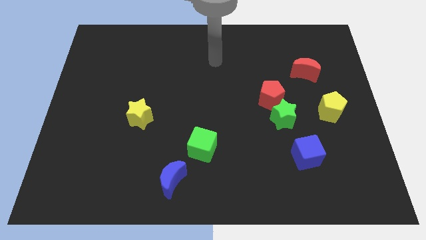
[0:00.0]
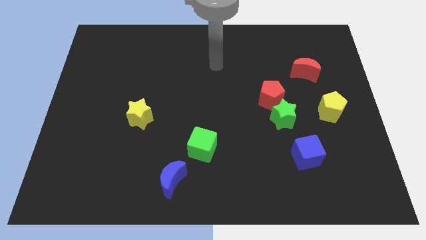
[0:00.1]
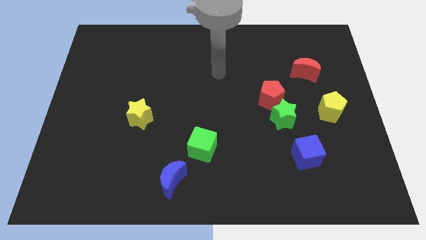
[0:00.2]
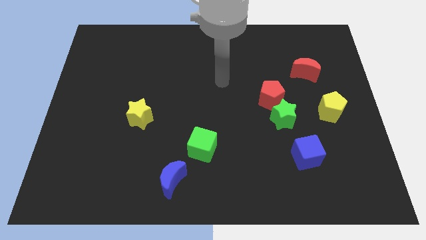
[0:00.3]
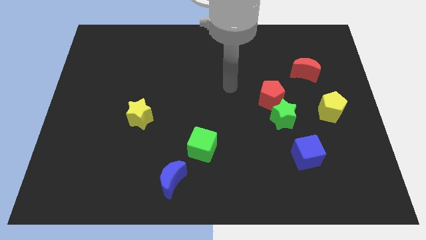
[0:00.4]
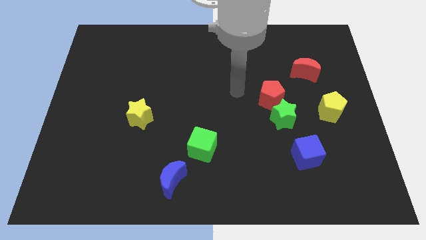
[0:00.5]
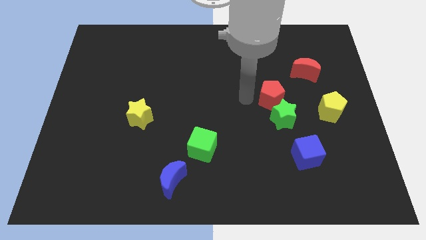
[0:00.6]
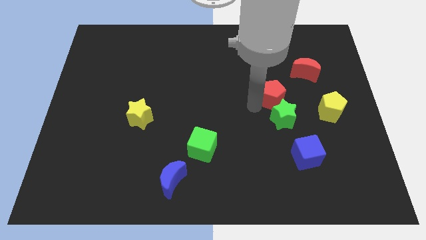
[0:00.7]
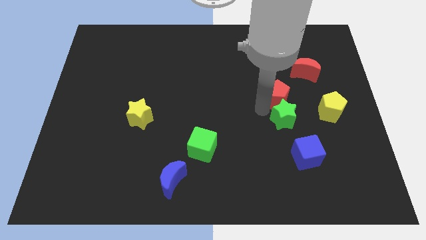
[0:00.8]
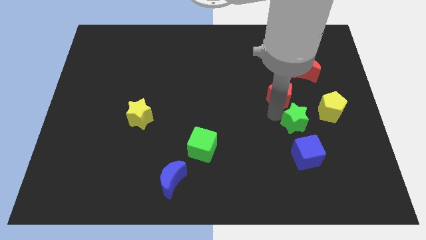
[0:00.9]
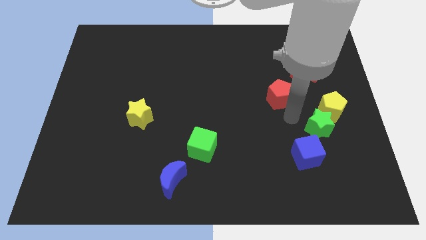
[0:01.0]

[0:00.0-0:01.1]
move the red pentagon away from the green star

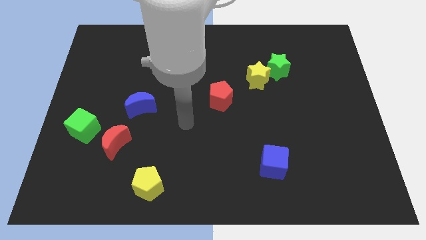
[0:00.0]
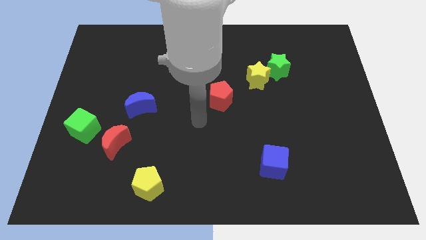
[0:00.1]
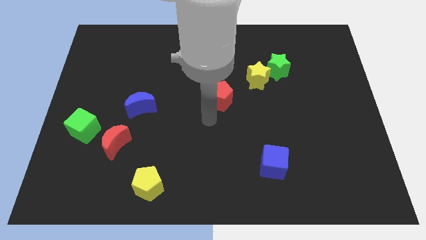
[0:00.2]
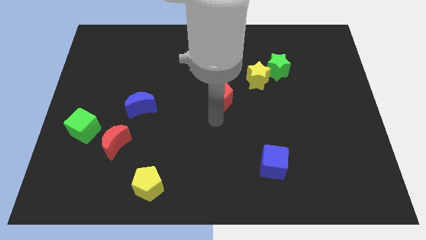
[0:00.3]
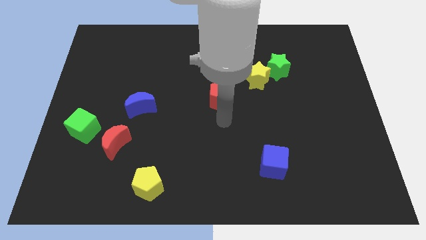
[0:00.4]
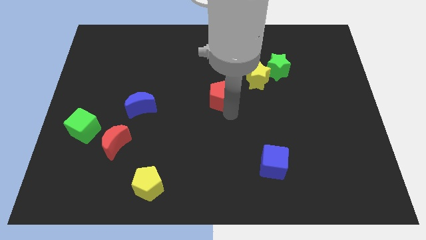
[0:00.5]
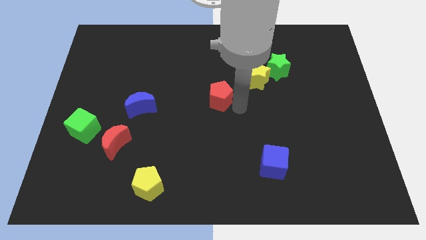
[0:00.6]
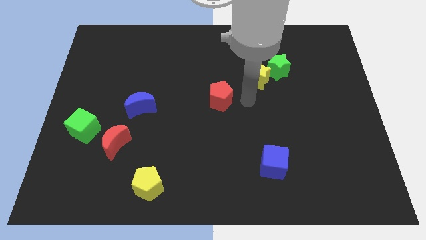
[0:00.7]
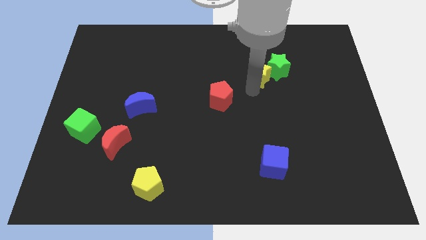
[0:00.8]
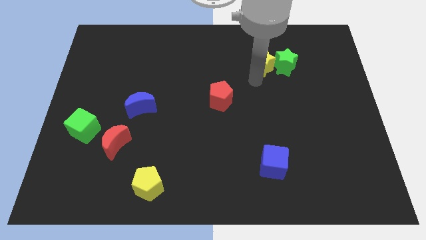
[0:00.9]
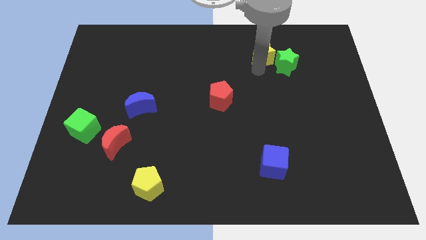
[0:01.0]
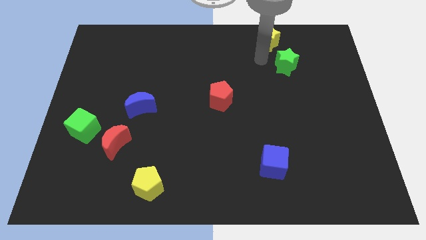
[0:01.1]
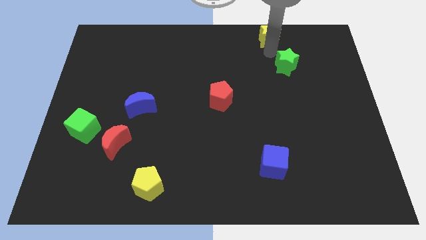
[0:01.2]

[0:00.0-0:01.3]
pull the green star apart from the yellow star

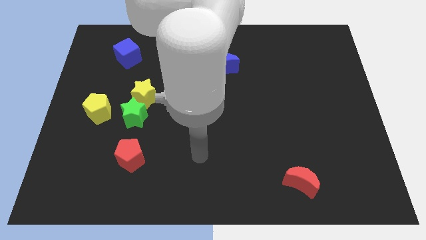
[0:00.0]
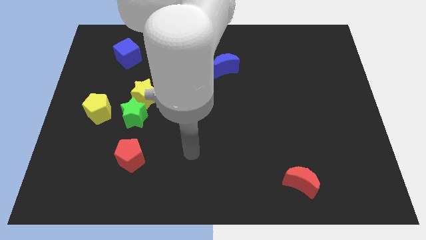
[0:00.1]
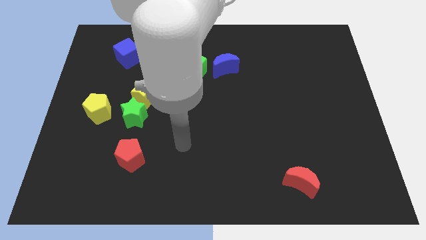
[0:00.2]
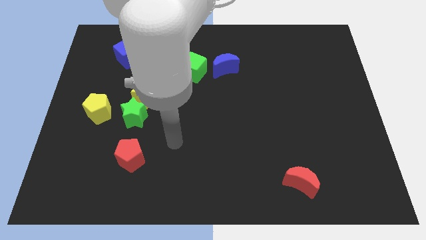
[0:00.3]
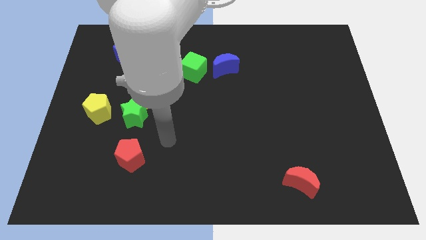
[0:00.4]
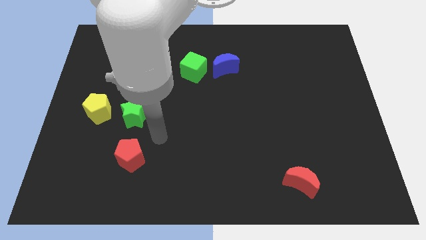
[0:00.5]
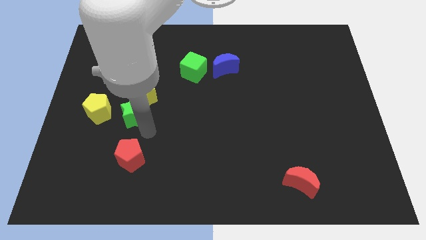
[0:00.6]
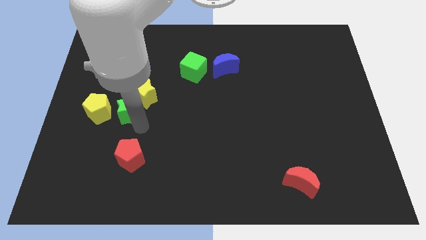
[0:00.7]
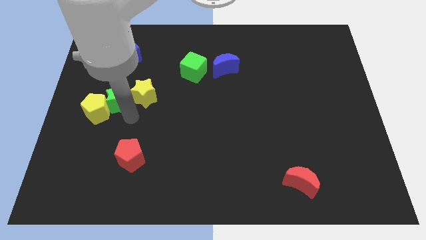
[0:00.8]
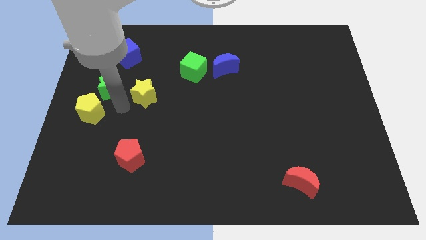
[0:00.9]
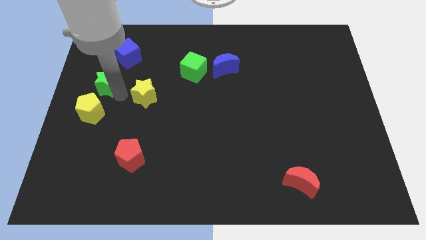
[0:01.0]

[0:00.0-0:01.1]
pull the yellow star apart from the green star

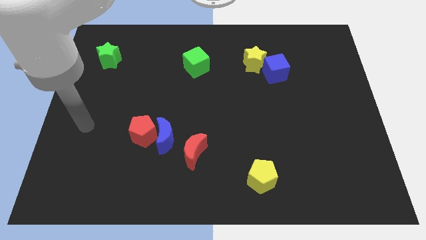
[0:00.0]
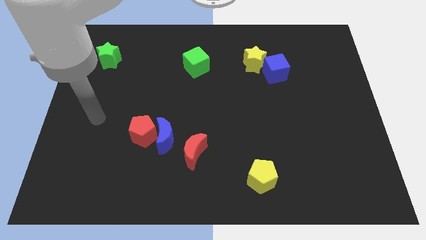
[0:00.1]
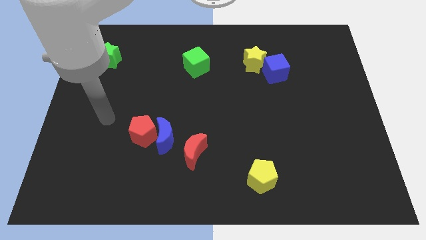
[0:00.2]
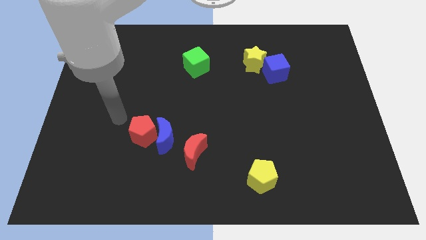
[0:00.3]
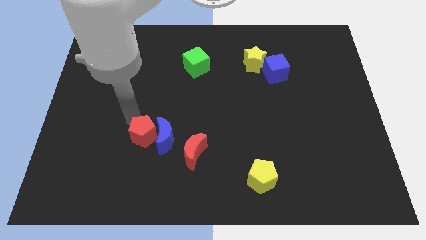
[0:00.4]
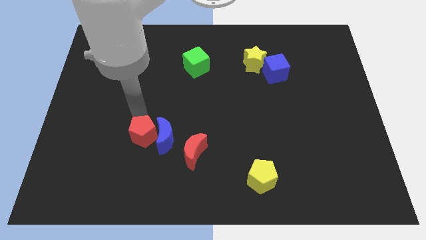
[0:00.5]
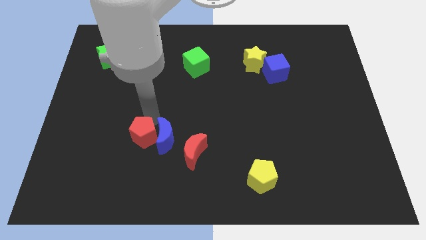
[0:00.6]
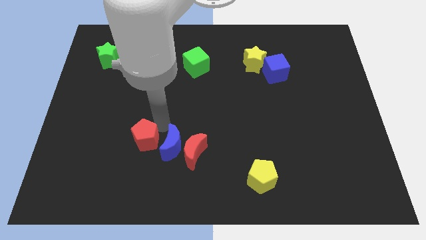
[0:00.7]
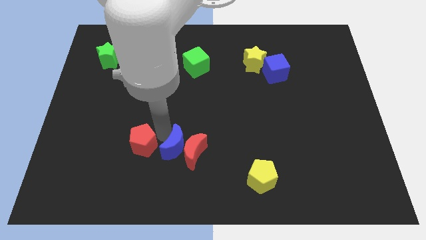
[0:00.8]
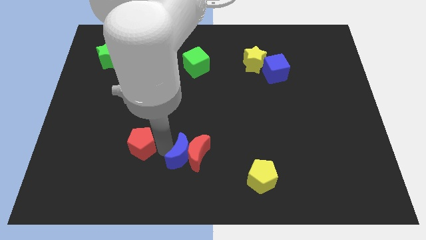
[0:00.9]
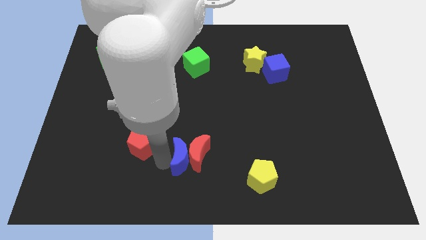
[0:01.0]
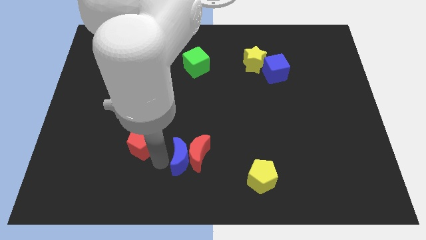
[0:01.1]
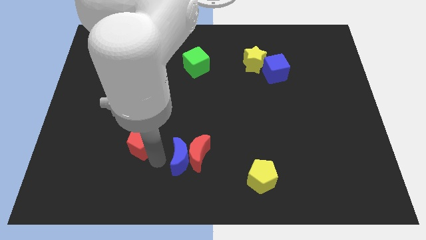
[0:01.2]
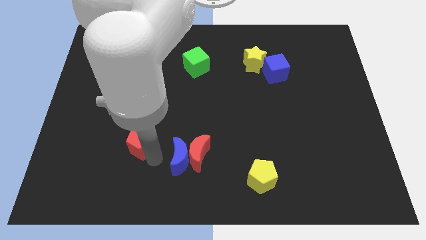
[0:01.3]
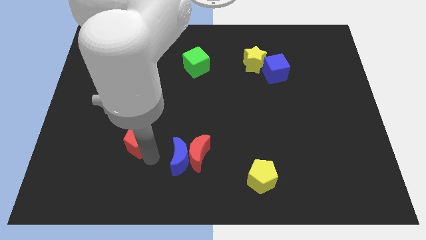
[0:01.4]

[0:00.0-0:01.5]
separate the red pentagon from the blue moon

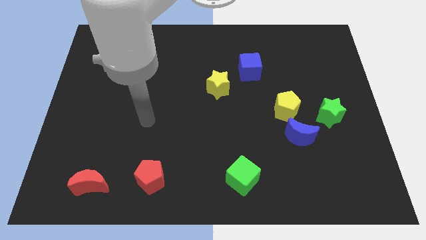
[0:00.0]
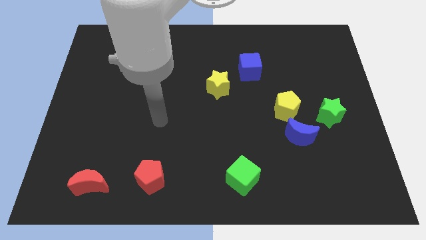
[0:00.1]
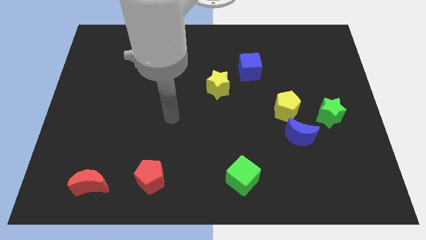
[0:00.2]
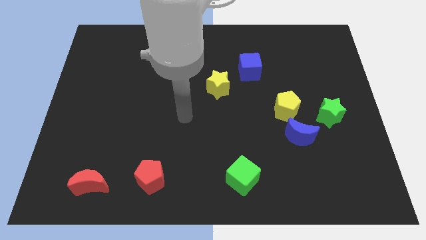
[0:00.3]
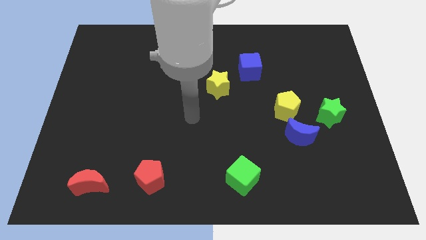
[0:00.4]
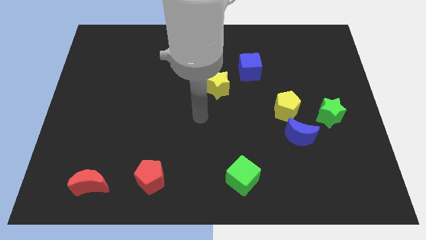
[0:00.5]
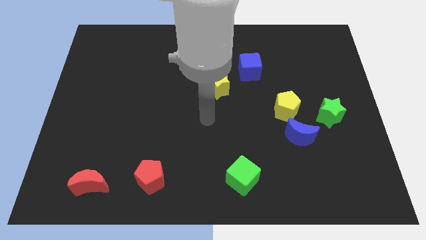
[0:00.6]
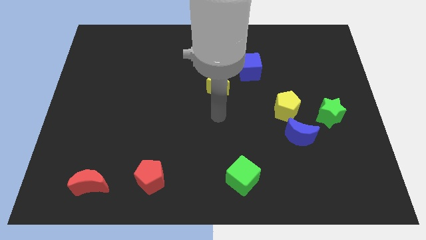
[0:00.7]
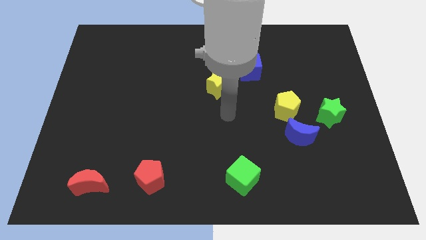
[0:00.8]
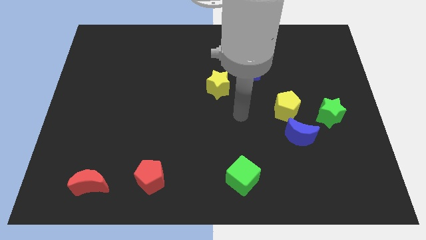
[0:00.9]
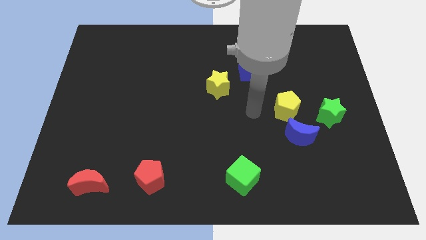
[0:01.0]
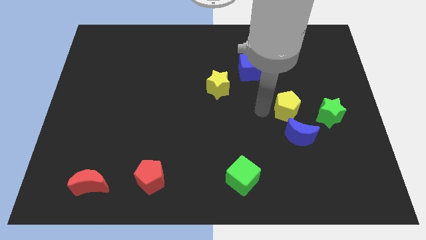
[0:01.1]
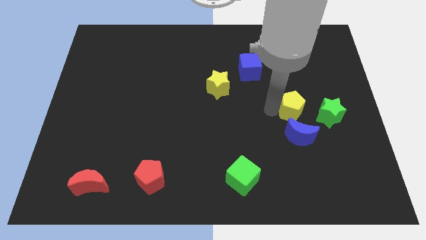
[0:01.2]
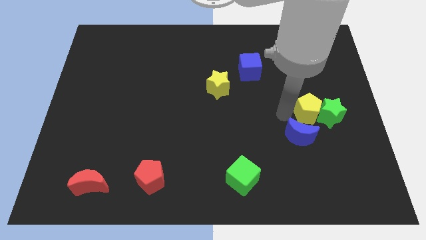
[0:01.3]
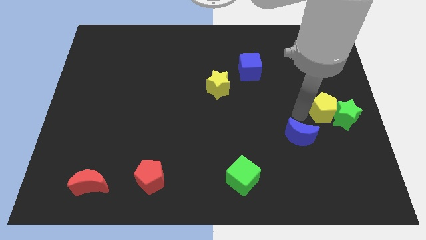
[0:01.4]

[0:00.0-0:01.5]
move the blue moon away from the yellow pentagon and green star

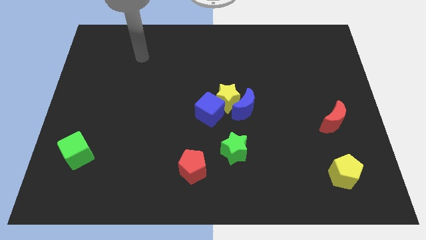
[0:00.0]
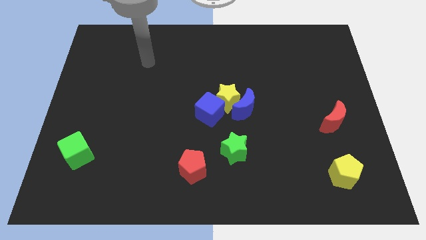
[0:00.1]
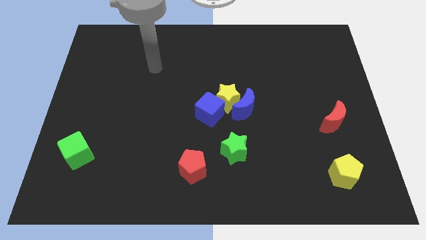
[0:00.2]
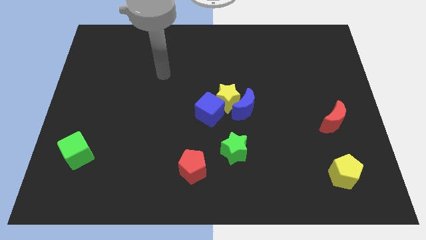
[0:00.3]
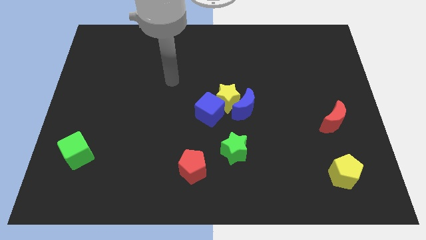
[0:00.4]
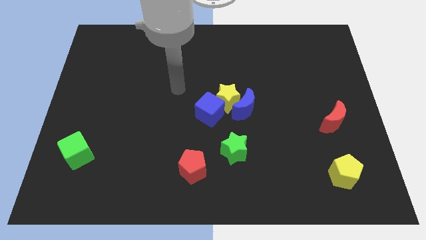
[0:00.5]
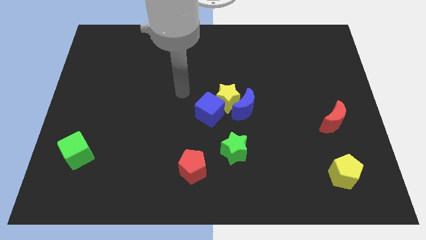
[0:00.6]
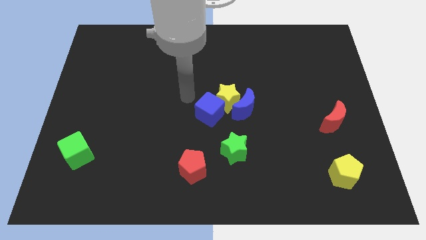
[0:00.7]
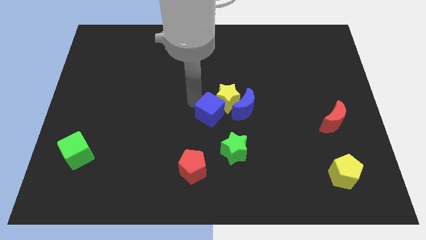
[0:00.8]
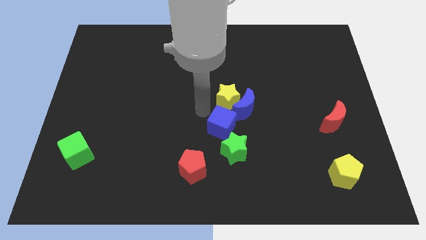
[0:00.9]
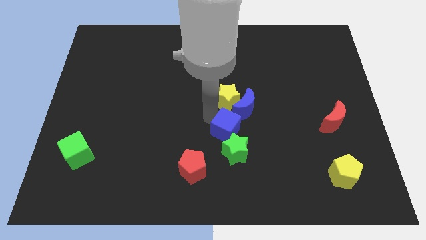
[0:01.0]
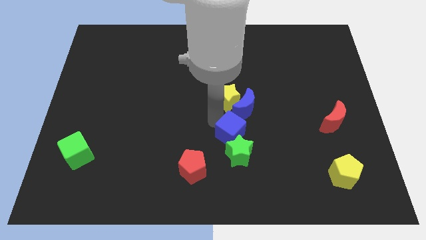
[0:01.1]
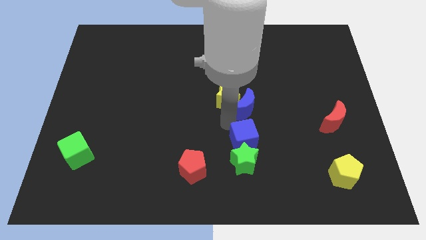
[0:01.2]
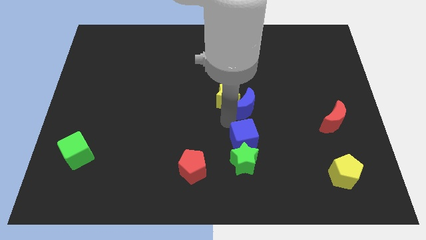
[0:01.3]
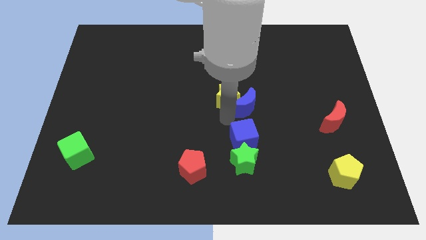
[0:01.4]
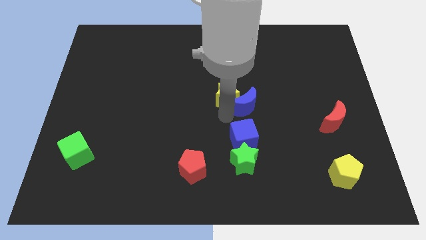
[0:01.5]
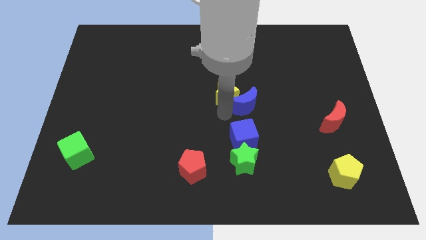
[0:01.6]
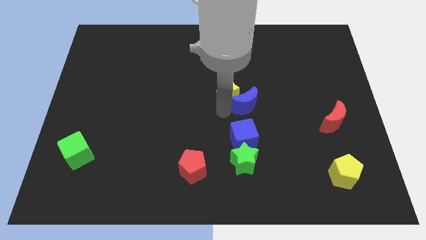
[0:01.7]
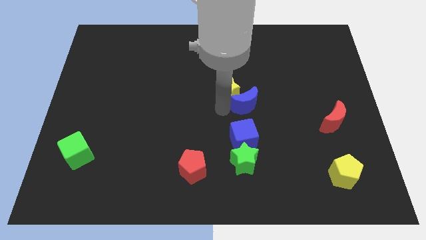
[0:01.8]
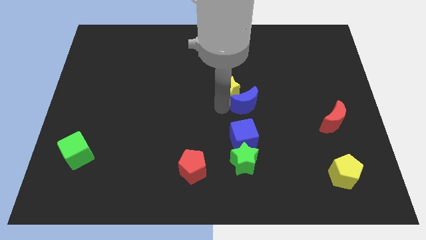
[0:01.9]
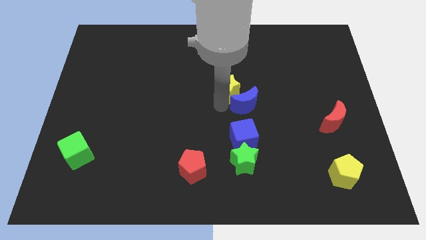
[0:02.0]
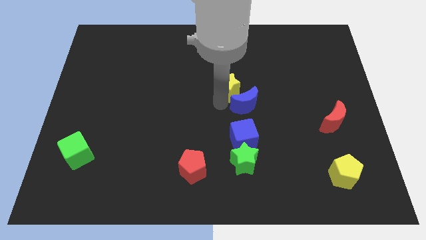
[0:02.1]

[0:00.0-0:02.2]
move the yellow star away from the blue moon and blue cube

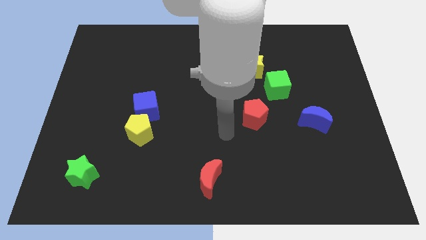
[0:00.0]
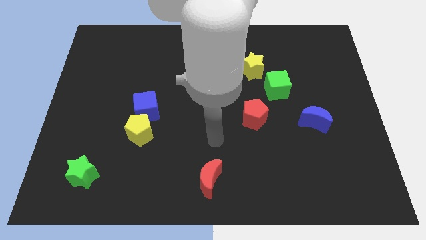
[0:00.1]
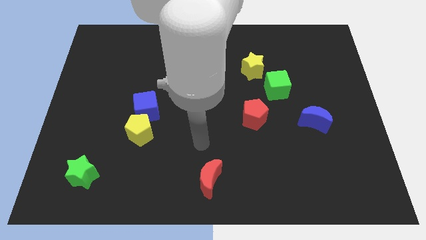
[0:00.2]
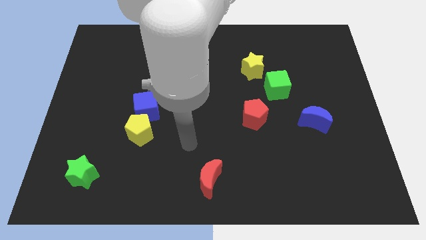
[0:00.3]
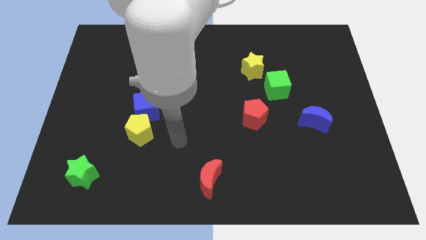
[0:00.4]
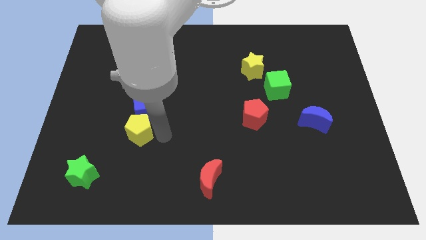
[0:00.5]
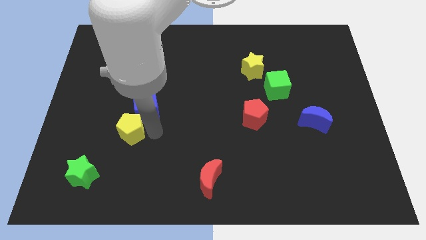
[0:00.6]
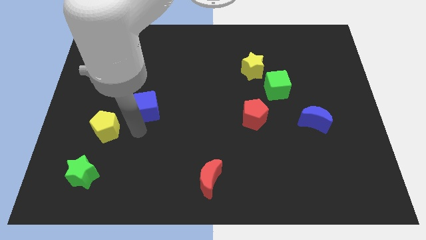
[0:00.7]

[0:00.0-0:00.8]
separate the blue cube from the yellow pentagon

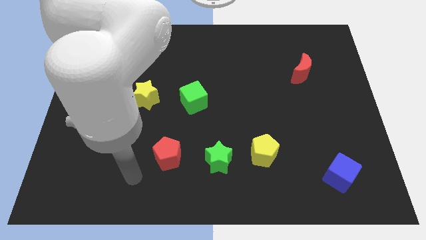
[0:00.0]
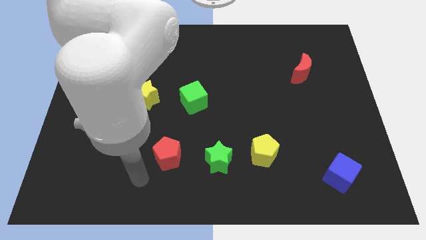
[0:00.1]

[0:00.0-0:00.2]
move the green star away from the yellow pentagon
